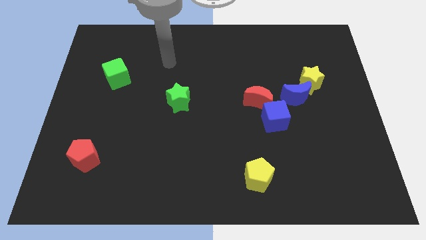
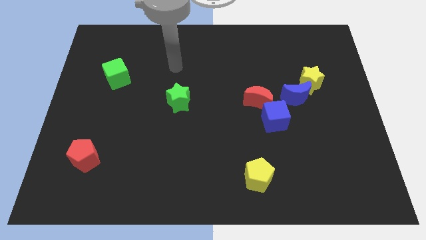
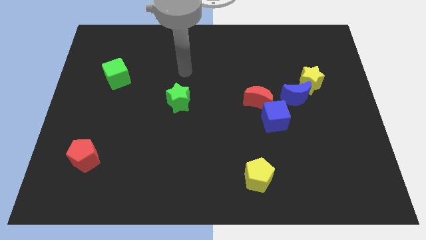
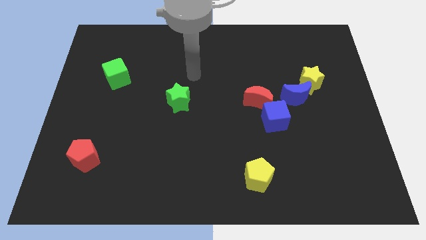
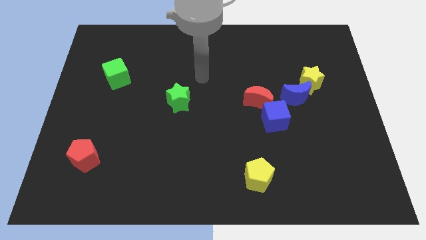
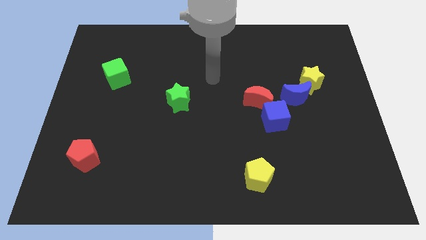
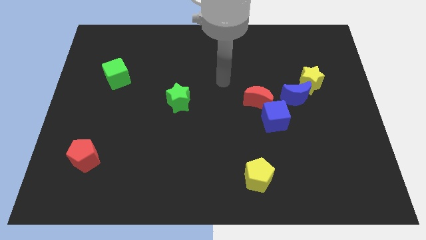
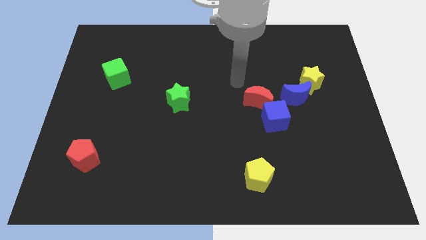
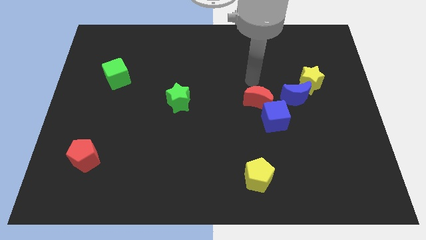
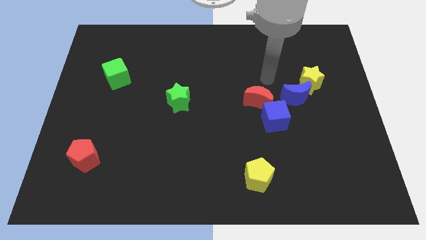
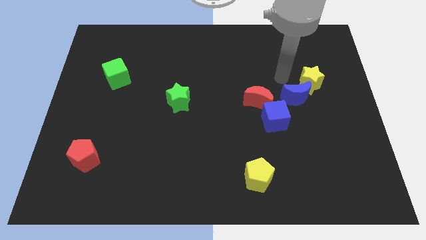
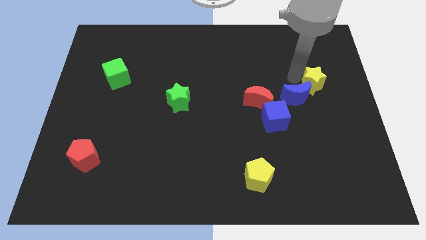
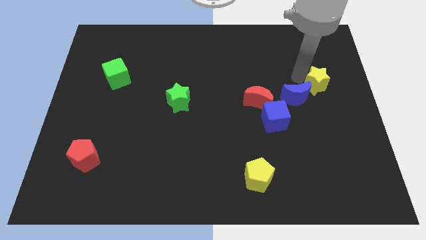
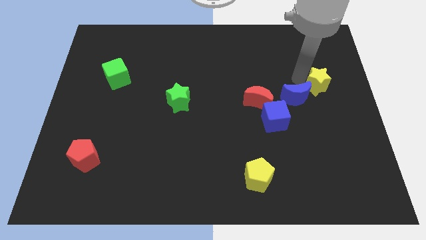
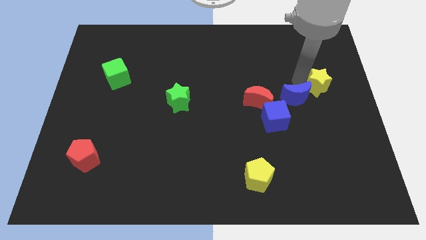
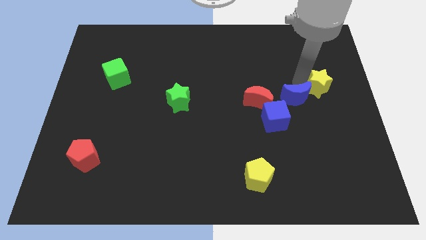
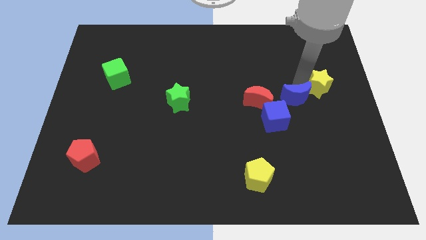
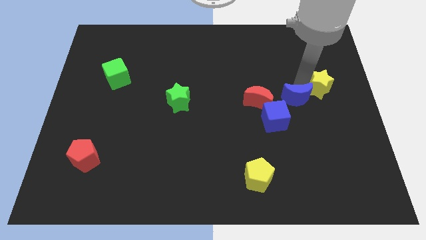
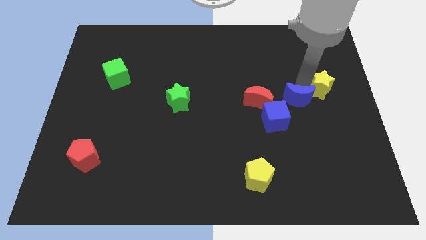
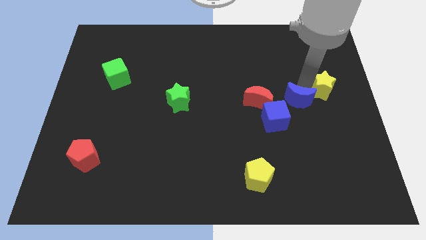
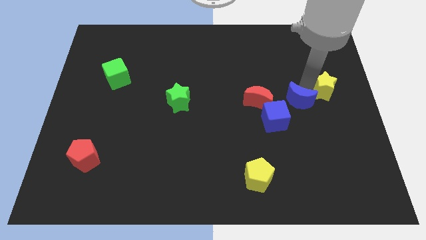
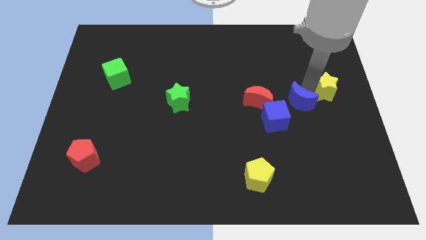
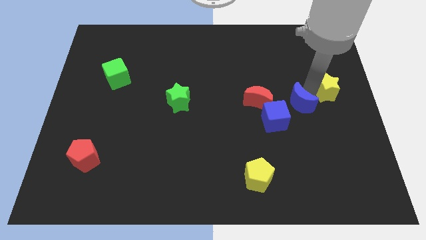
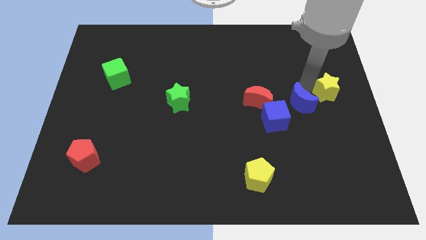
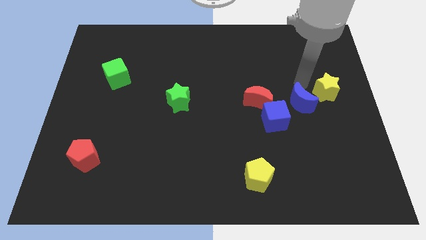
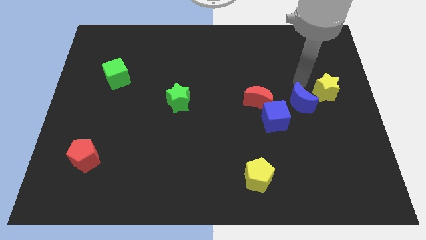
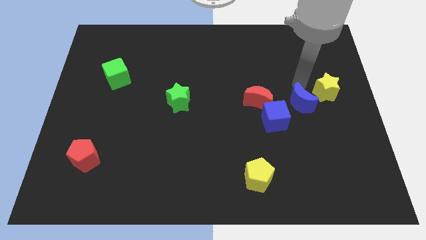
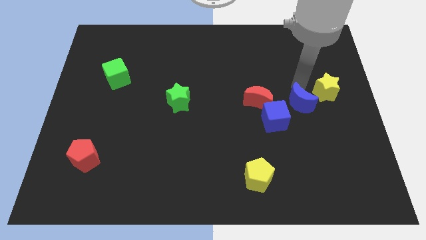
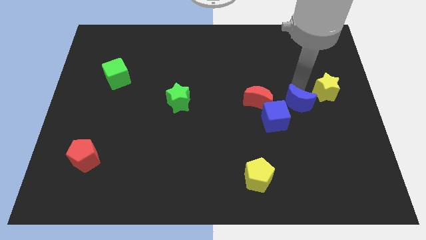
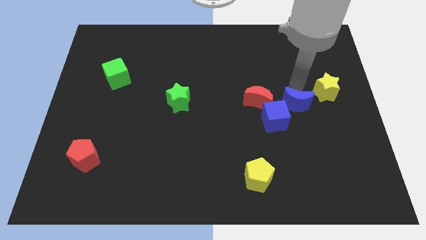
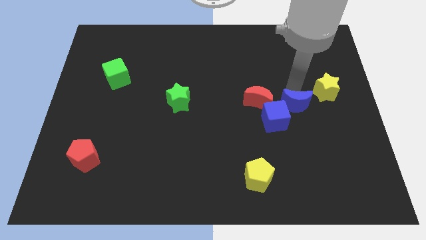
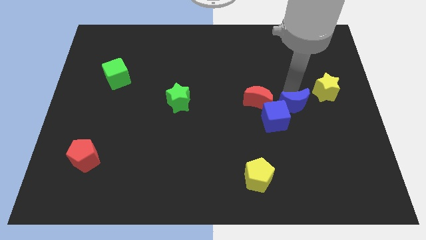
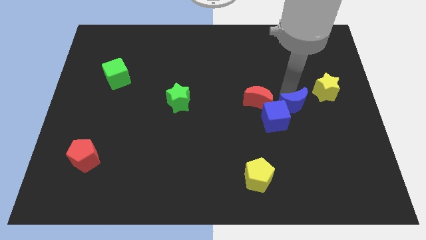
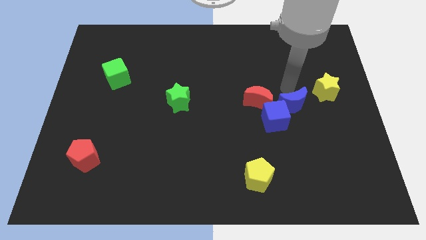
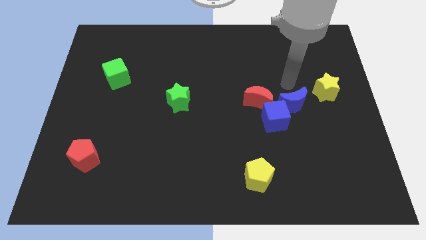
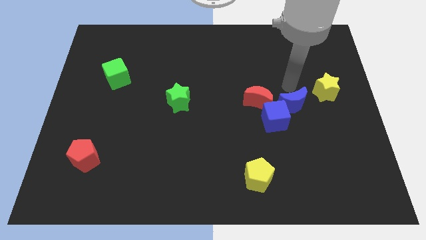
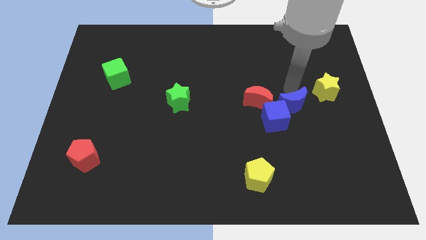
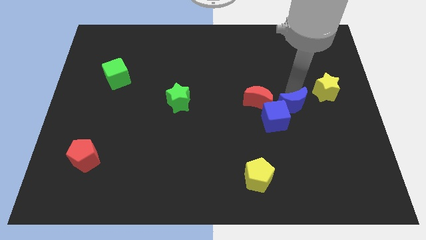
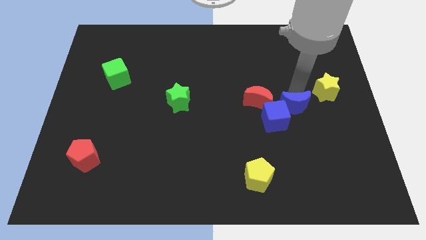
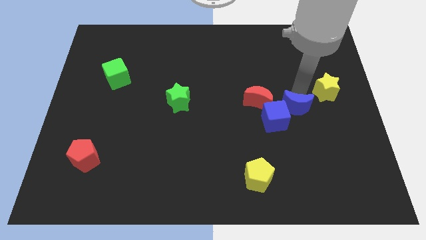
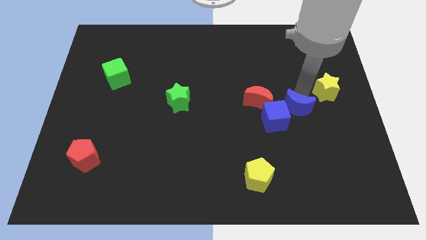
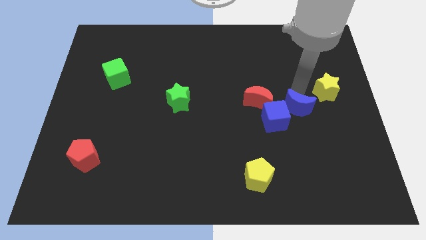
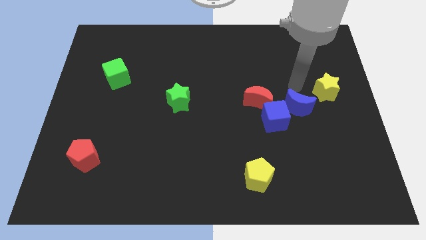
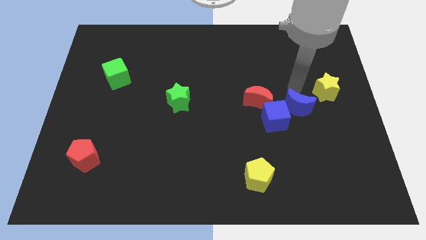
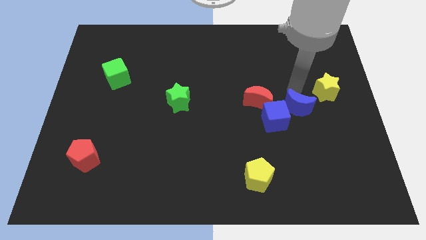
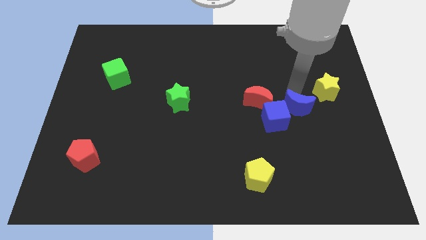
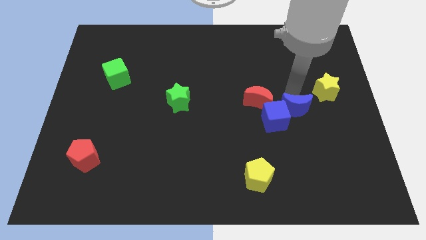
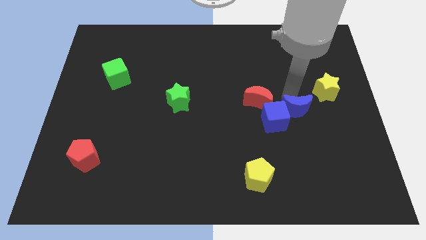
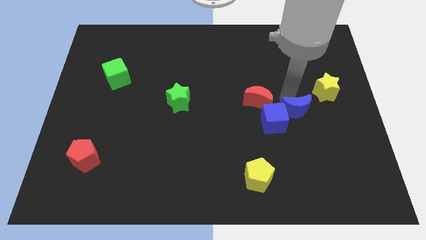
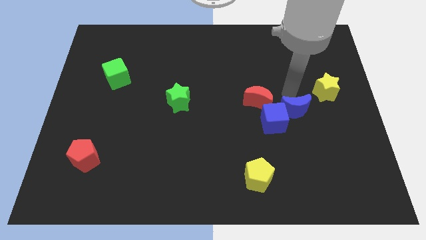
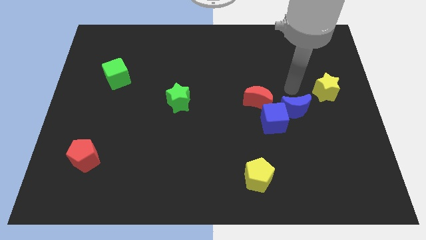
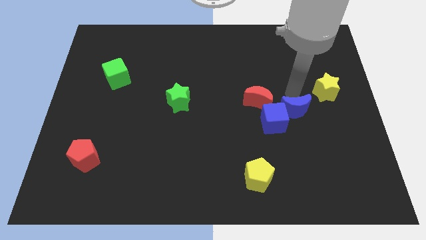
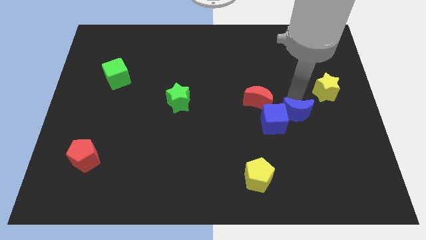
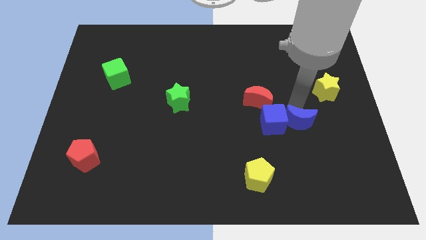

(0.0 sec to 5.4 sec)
move the blue moon diagonally down and to the right of the blue cube

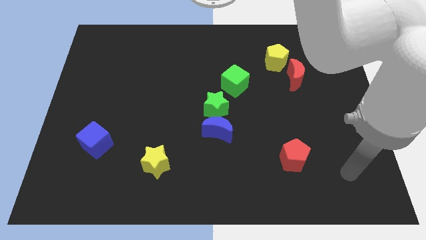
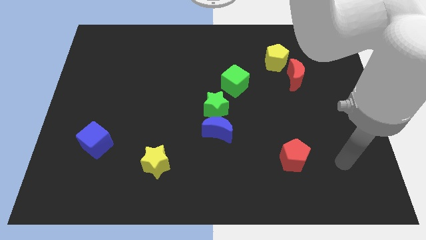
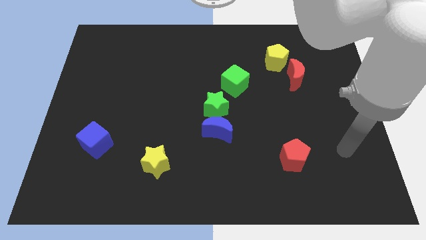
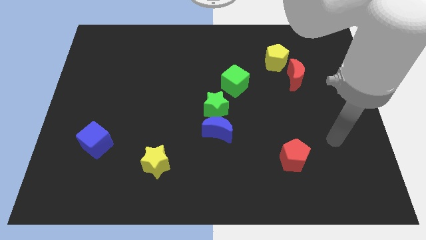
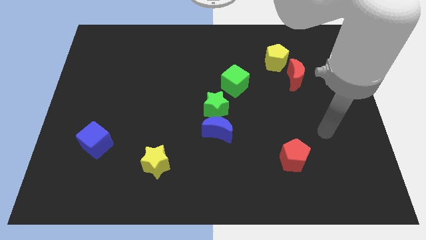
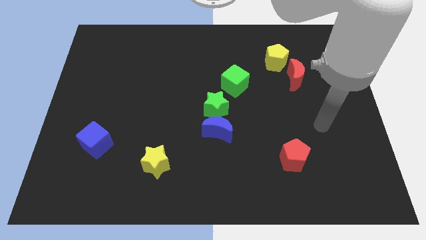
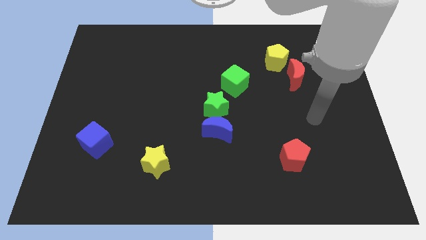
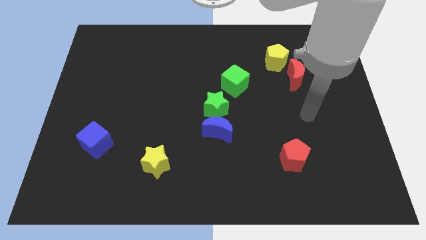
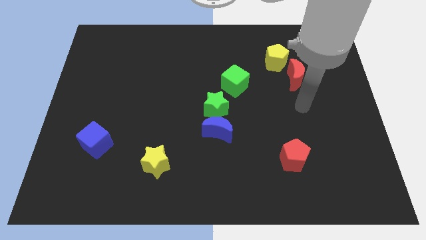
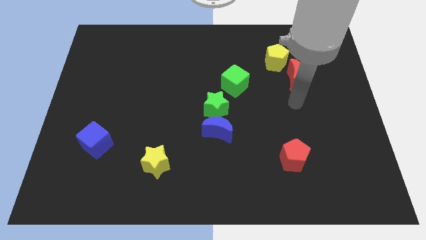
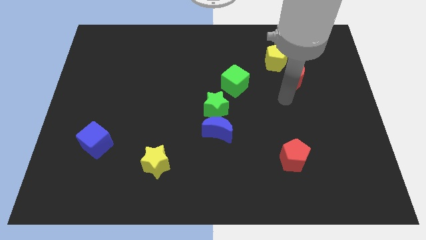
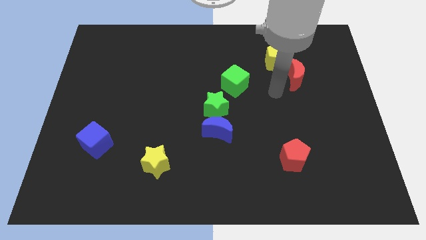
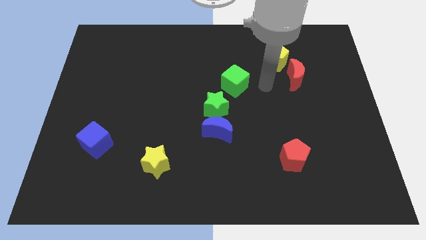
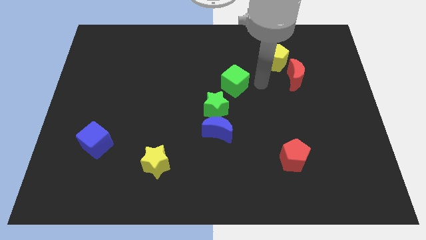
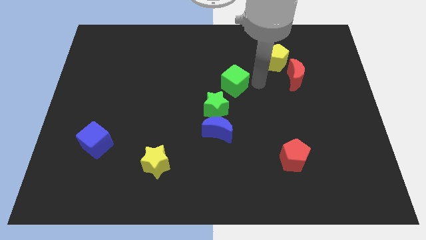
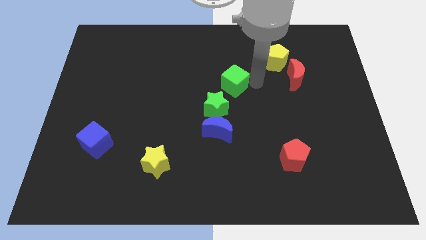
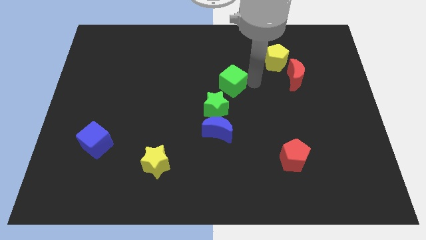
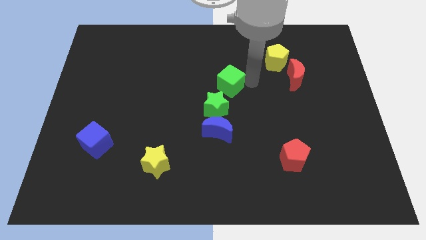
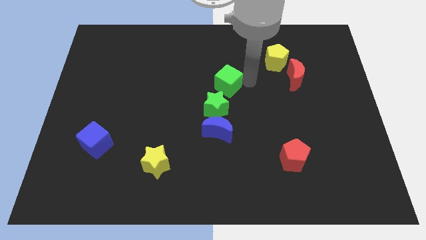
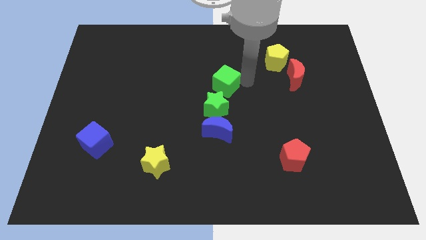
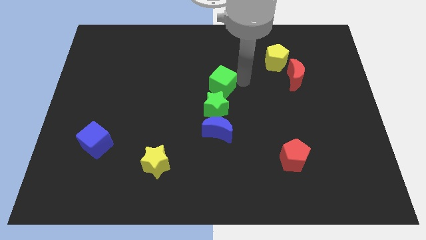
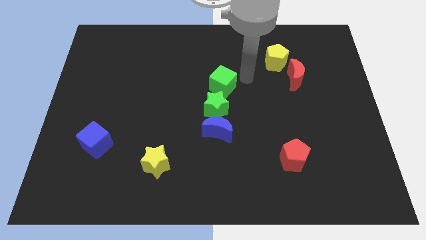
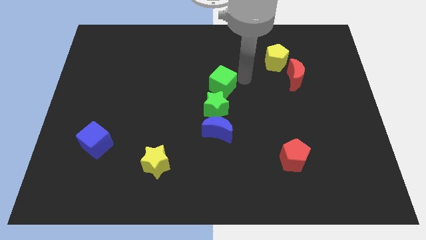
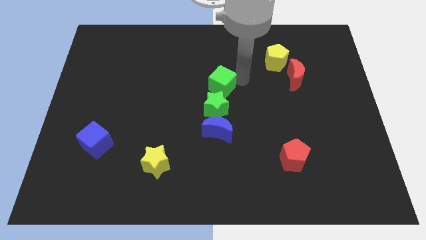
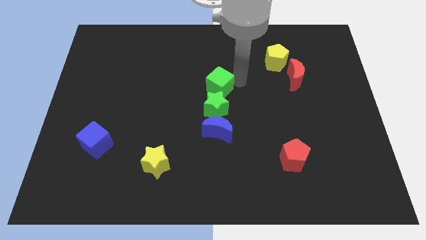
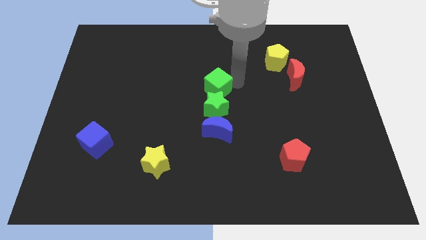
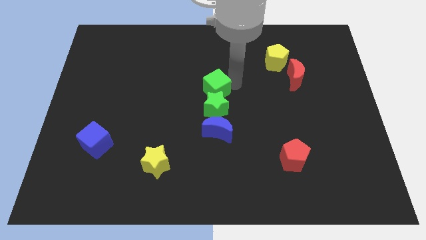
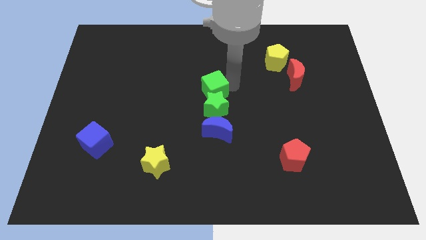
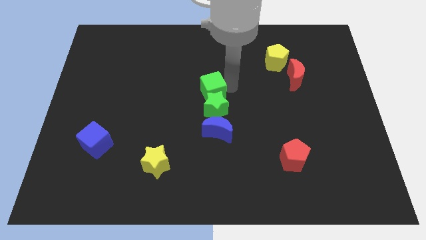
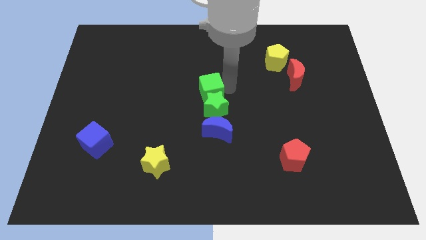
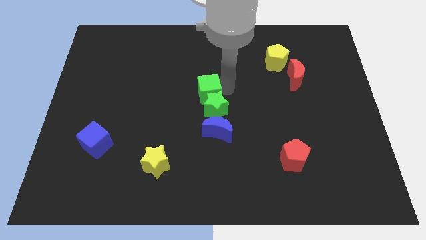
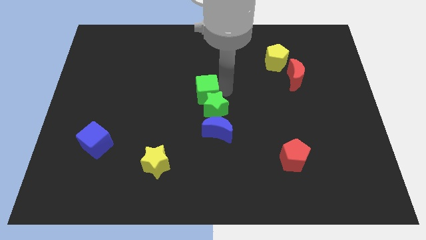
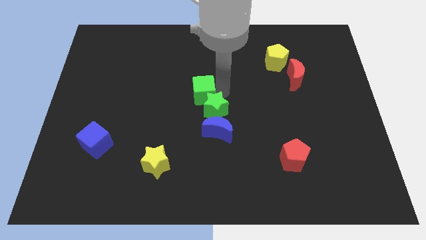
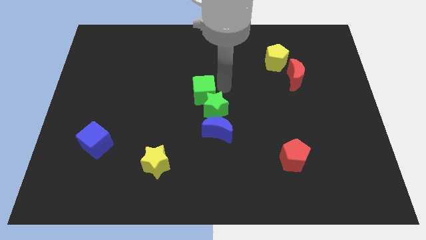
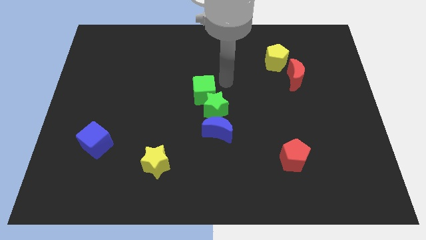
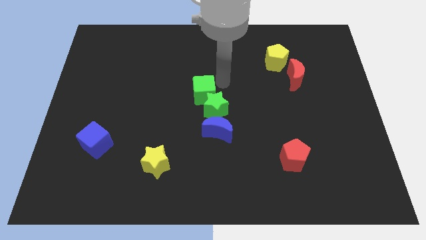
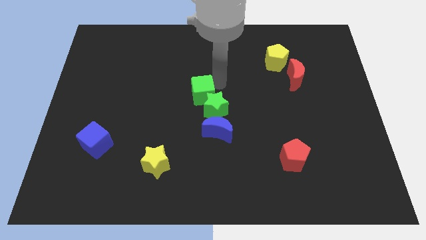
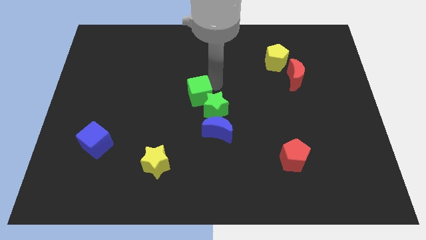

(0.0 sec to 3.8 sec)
push the green cube left of the green star
